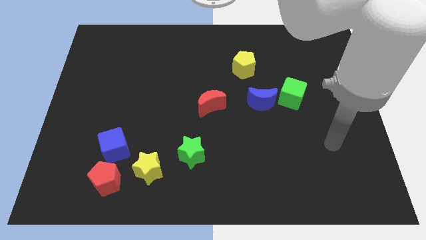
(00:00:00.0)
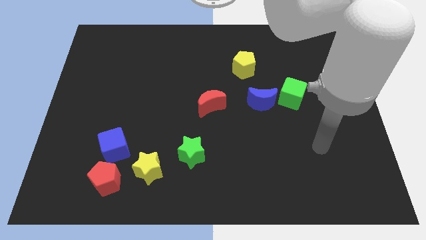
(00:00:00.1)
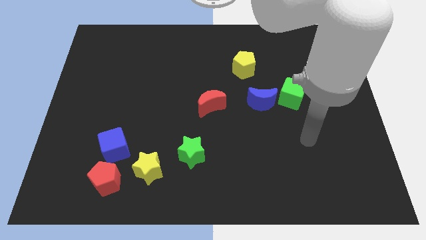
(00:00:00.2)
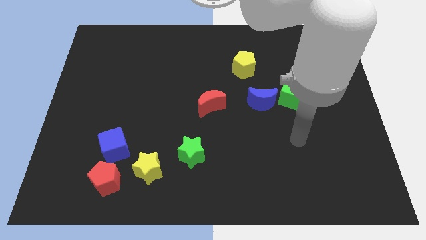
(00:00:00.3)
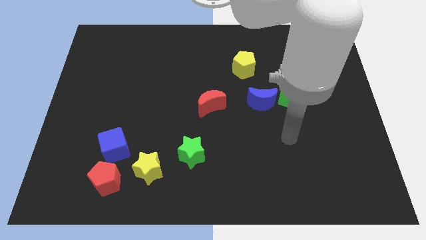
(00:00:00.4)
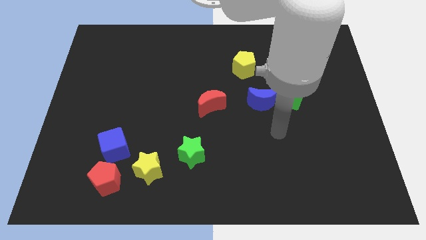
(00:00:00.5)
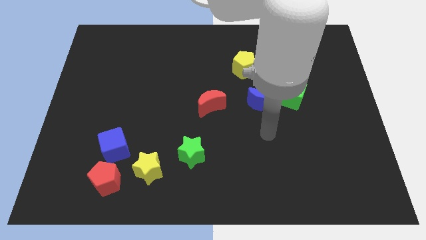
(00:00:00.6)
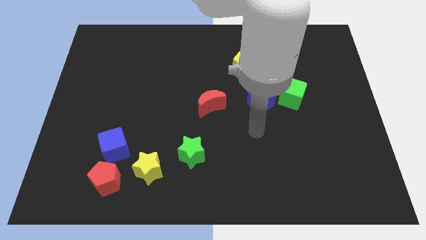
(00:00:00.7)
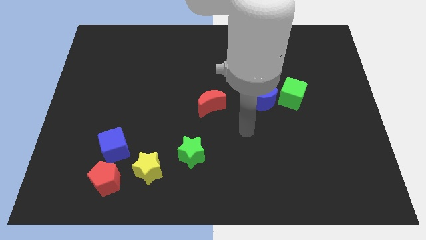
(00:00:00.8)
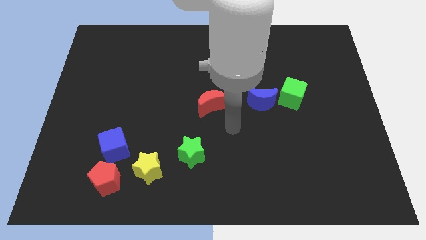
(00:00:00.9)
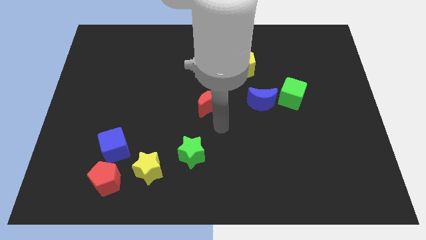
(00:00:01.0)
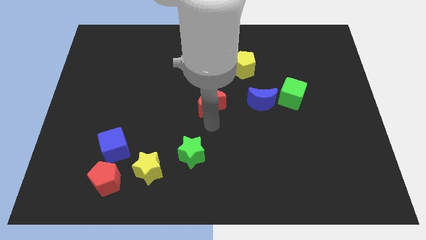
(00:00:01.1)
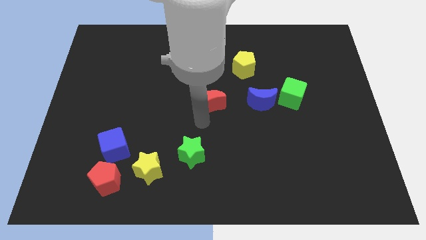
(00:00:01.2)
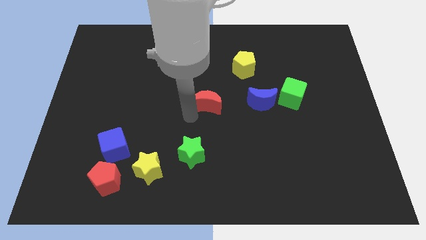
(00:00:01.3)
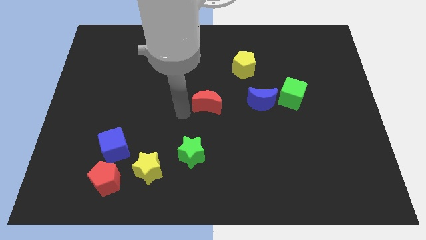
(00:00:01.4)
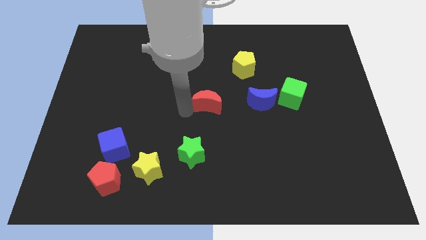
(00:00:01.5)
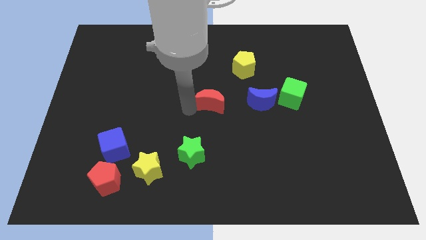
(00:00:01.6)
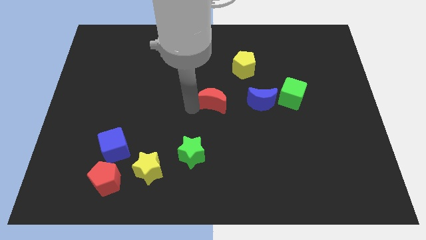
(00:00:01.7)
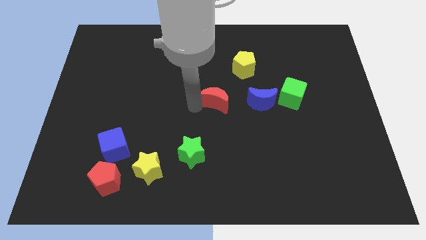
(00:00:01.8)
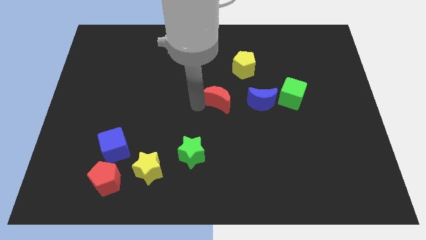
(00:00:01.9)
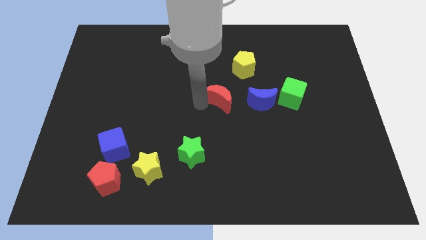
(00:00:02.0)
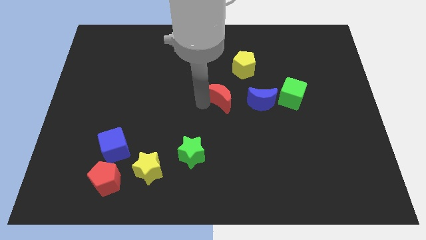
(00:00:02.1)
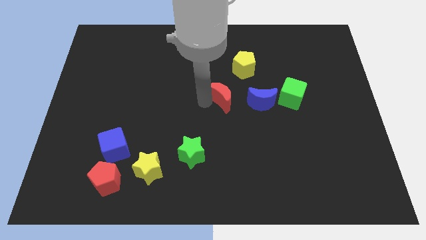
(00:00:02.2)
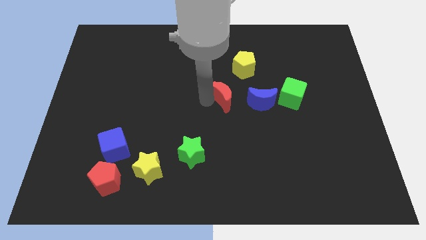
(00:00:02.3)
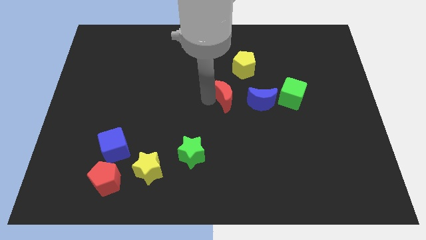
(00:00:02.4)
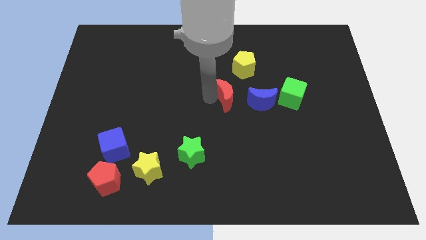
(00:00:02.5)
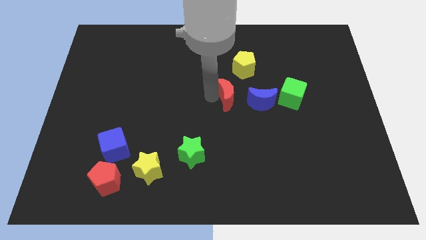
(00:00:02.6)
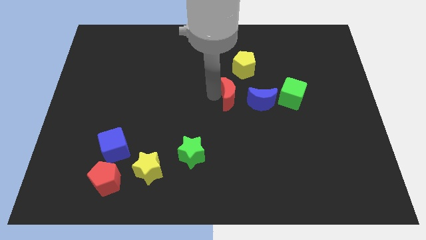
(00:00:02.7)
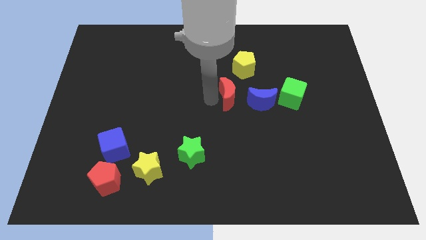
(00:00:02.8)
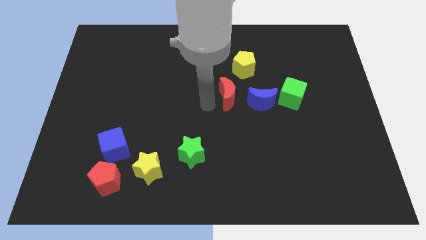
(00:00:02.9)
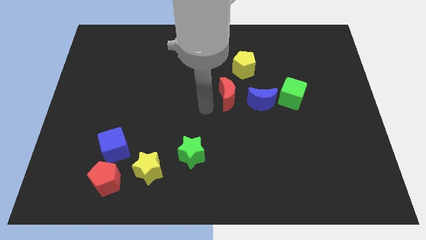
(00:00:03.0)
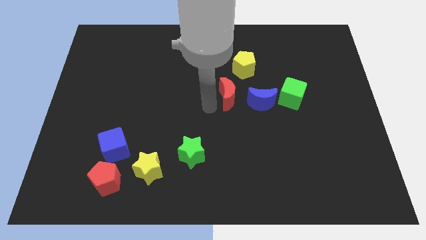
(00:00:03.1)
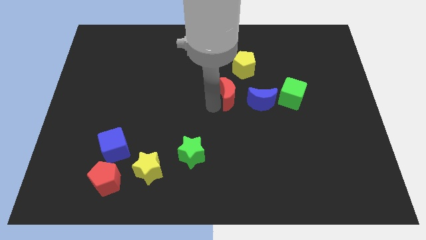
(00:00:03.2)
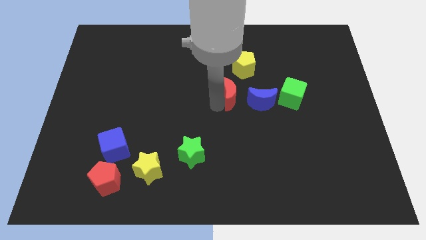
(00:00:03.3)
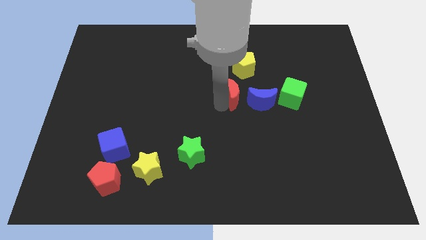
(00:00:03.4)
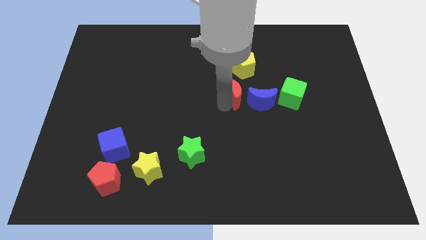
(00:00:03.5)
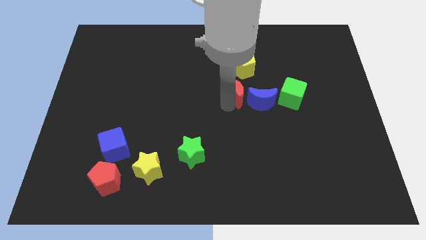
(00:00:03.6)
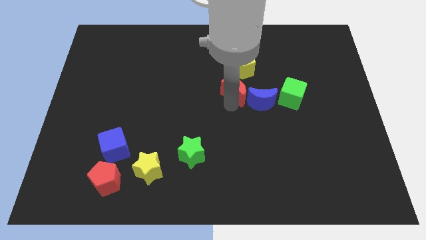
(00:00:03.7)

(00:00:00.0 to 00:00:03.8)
slightly push the red moon diagonally upwards and right

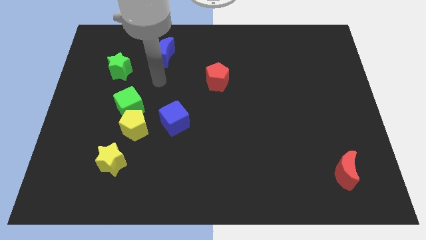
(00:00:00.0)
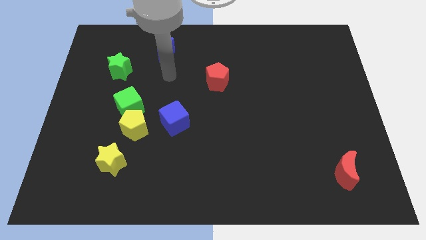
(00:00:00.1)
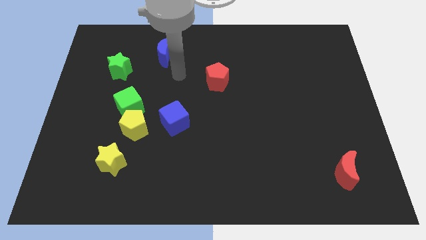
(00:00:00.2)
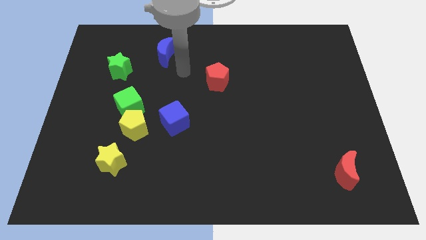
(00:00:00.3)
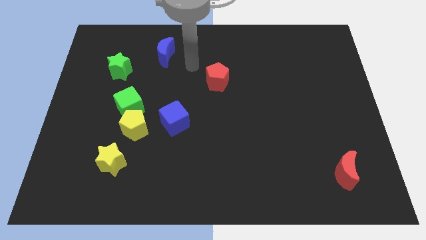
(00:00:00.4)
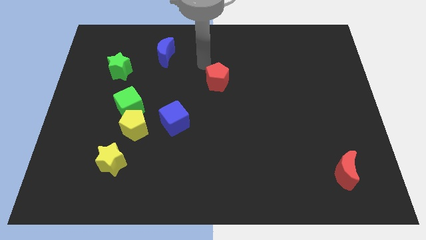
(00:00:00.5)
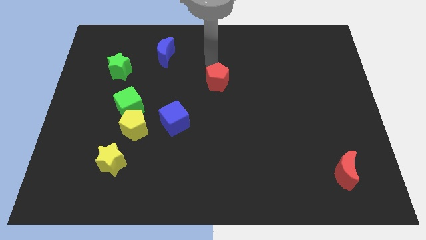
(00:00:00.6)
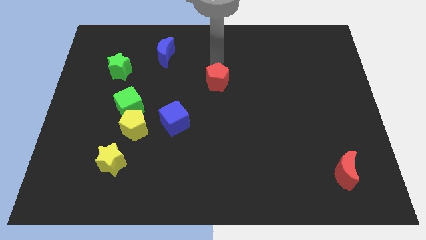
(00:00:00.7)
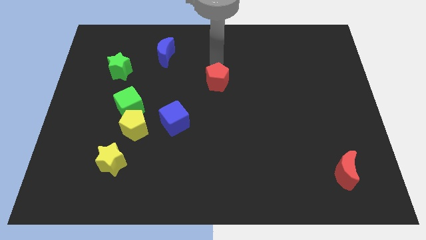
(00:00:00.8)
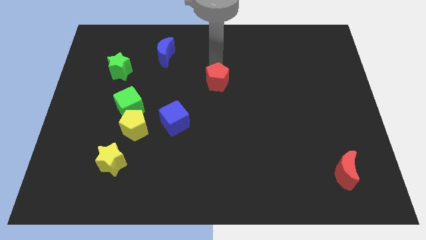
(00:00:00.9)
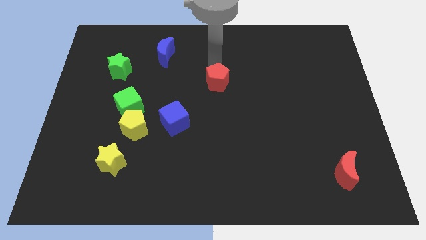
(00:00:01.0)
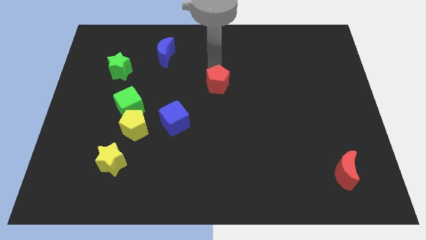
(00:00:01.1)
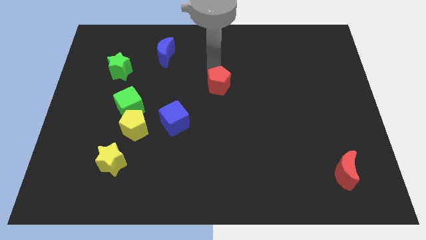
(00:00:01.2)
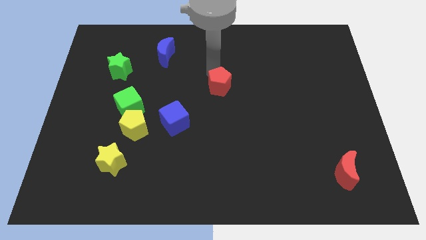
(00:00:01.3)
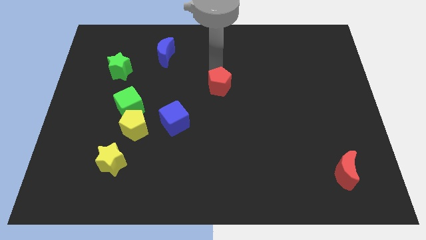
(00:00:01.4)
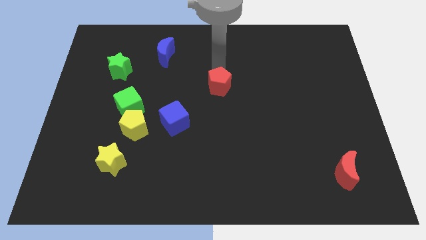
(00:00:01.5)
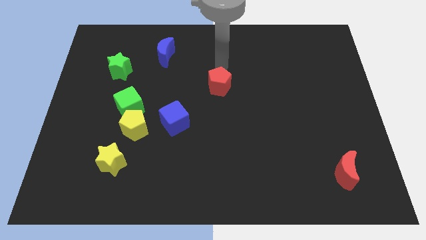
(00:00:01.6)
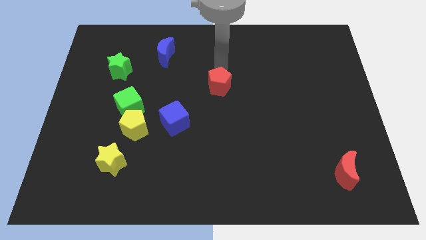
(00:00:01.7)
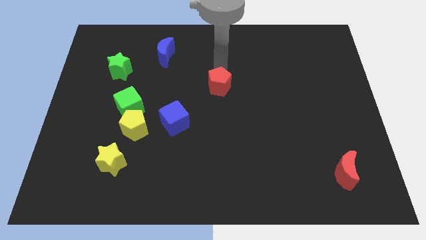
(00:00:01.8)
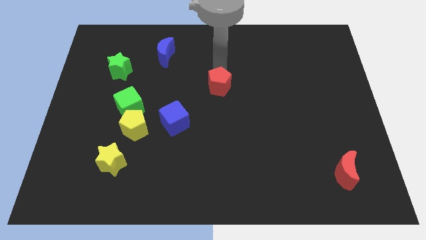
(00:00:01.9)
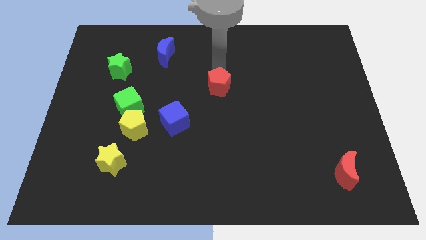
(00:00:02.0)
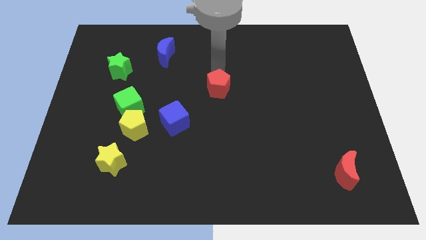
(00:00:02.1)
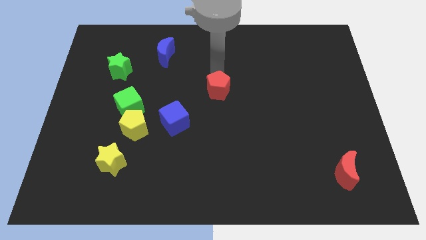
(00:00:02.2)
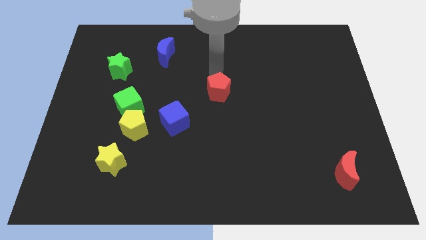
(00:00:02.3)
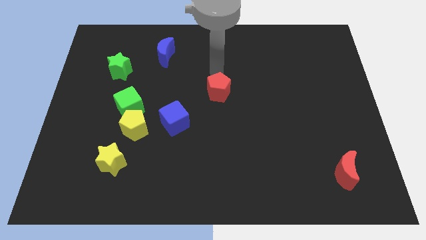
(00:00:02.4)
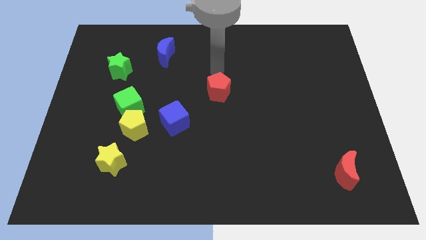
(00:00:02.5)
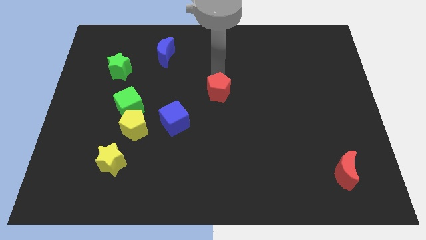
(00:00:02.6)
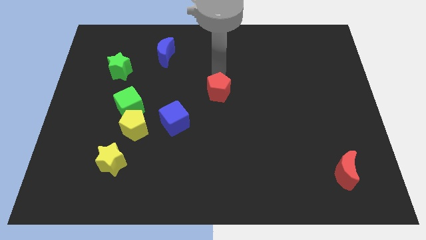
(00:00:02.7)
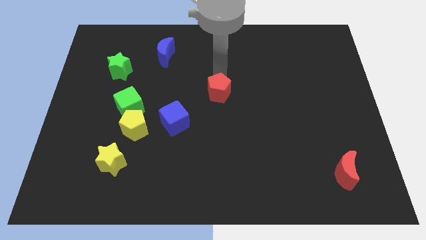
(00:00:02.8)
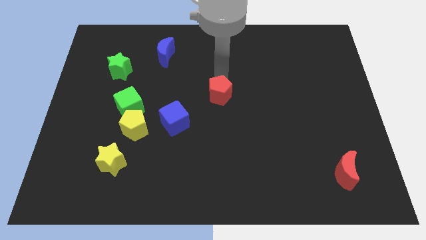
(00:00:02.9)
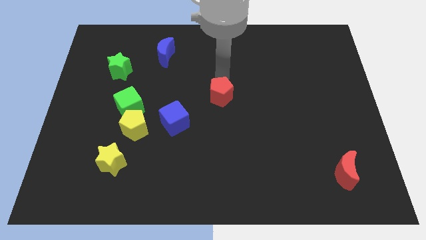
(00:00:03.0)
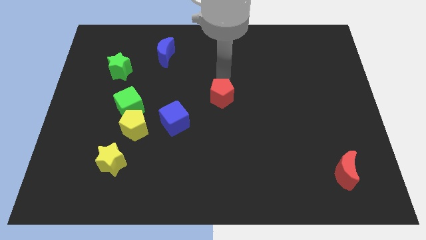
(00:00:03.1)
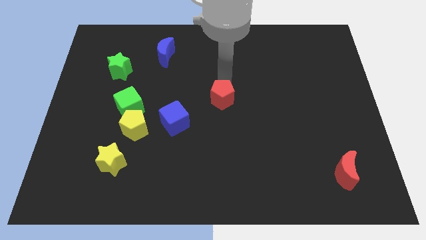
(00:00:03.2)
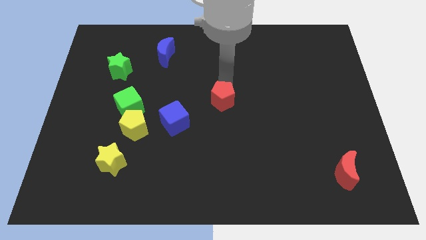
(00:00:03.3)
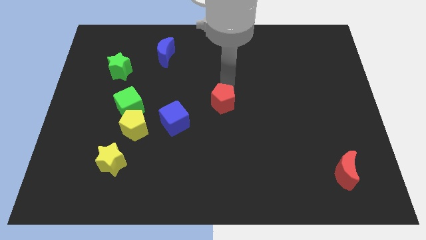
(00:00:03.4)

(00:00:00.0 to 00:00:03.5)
push the red pentagon downwards somewhat

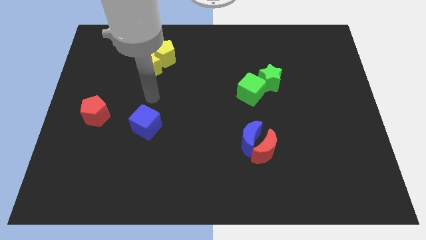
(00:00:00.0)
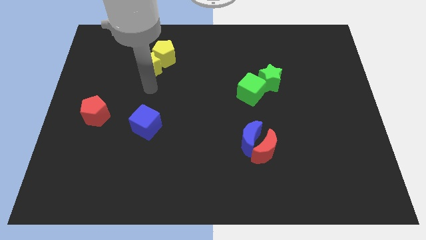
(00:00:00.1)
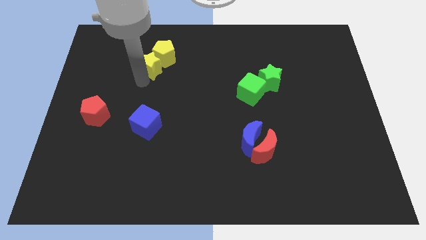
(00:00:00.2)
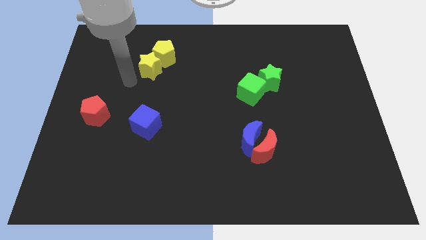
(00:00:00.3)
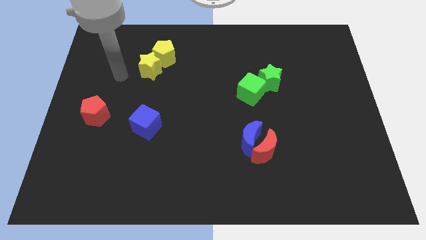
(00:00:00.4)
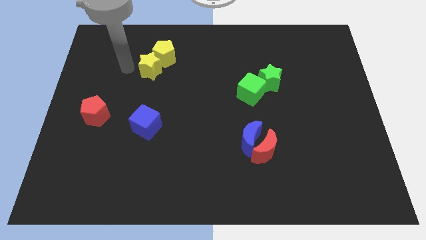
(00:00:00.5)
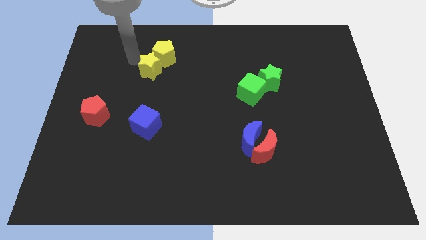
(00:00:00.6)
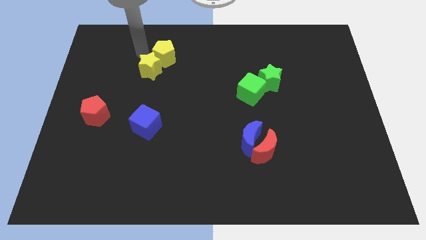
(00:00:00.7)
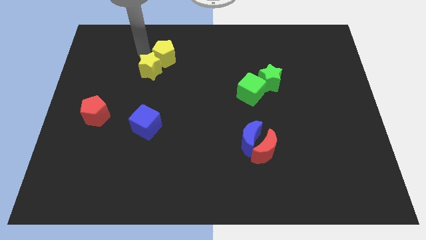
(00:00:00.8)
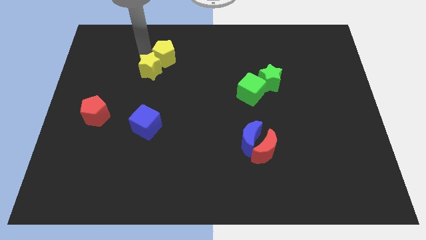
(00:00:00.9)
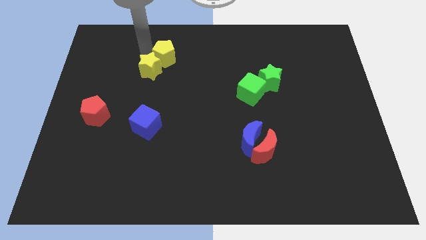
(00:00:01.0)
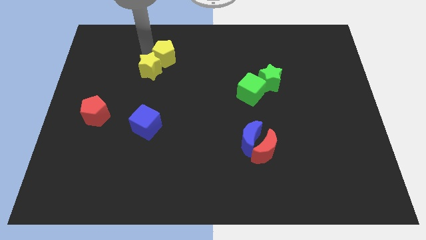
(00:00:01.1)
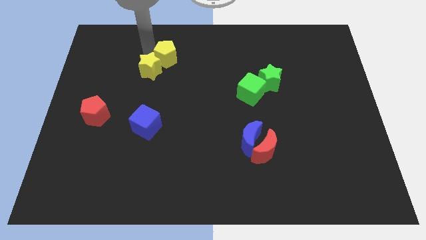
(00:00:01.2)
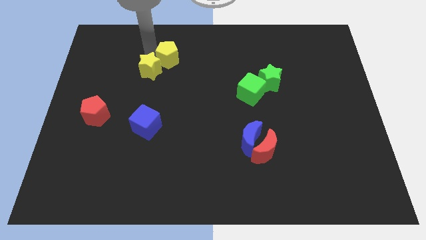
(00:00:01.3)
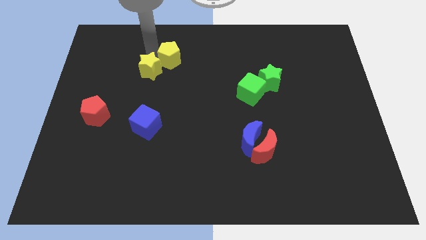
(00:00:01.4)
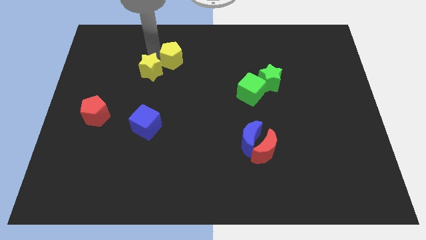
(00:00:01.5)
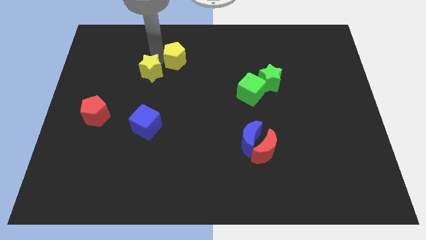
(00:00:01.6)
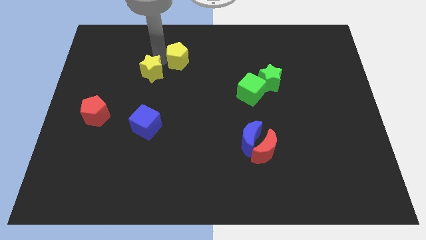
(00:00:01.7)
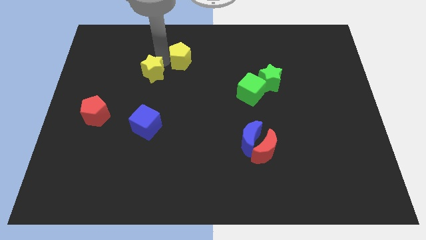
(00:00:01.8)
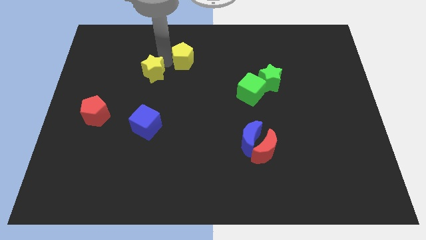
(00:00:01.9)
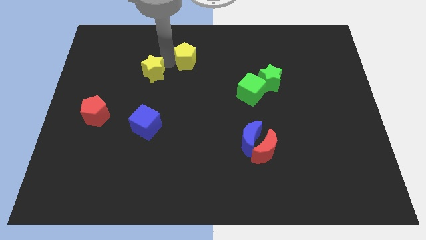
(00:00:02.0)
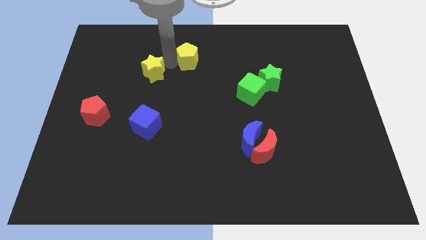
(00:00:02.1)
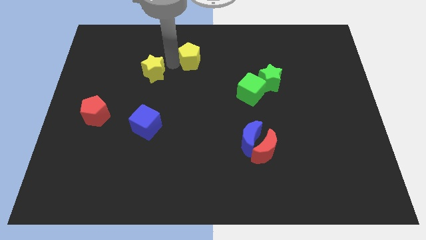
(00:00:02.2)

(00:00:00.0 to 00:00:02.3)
move the yellow pentagon a little bit to the right
